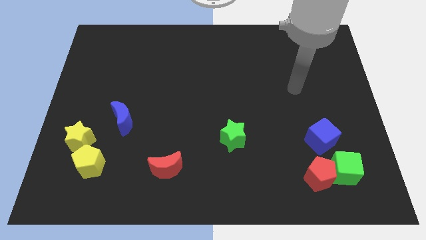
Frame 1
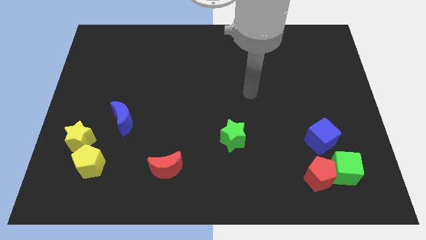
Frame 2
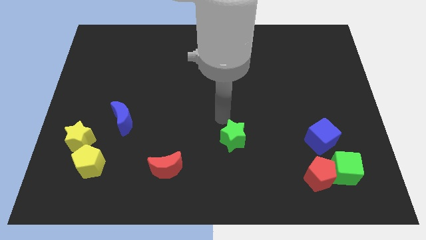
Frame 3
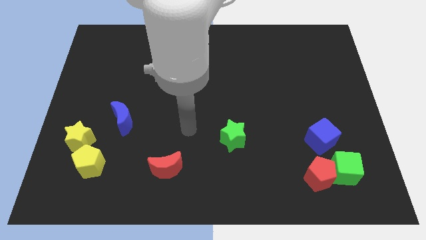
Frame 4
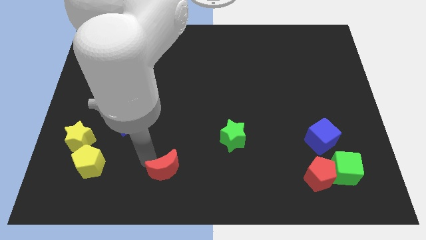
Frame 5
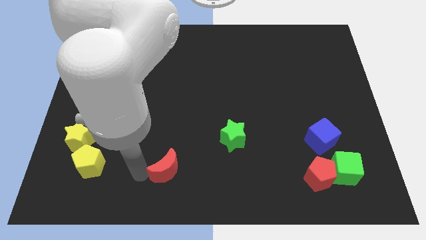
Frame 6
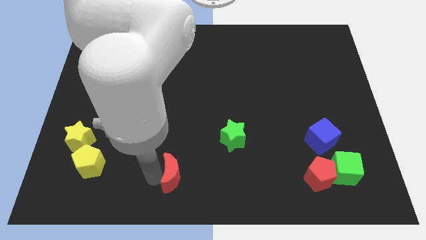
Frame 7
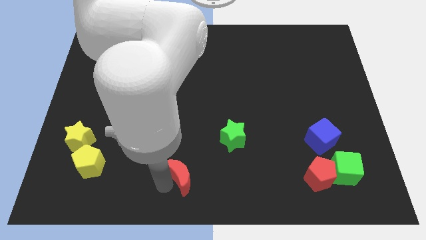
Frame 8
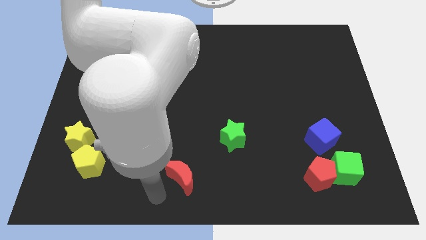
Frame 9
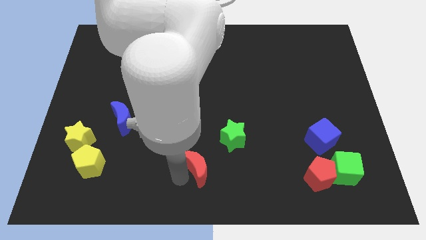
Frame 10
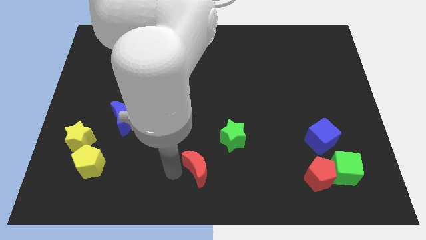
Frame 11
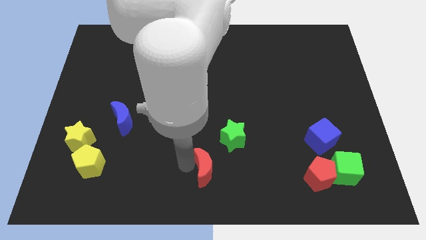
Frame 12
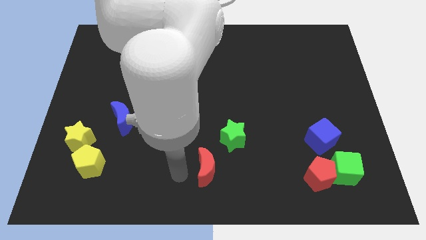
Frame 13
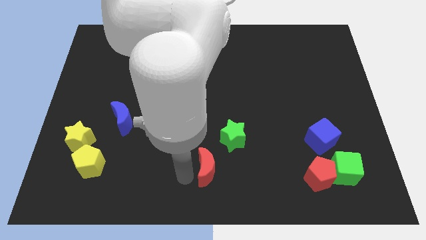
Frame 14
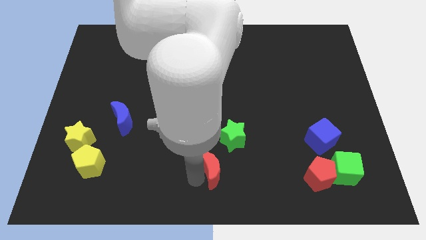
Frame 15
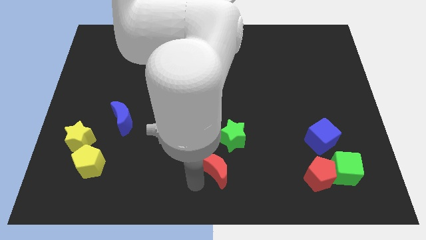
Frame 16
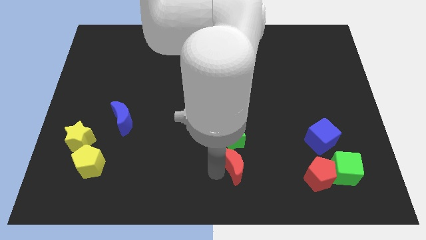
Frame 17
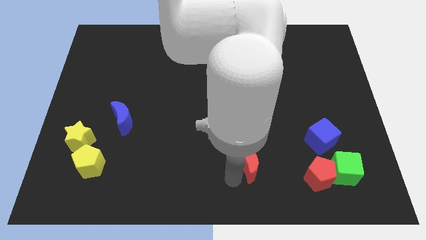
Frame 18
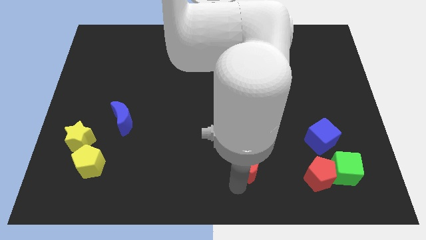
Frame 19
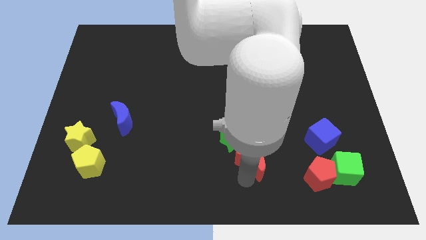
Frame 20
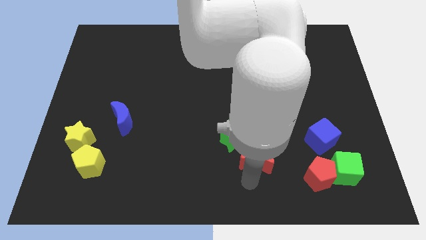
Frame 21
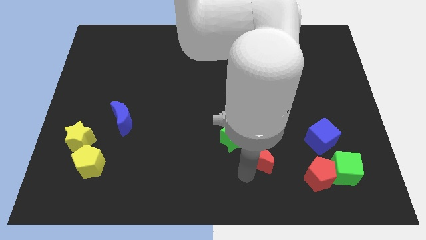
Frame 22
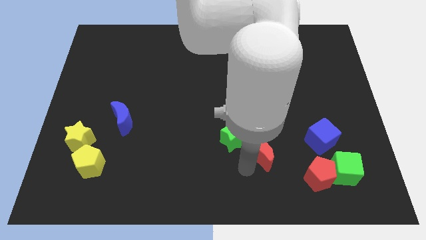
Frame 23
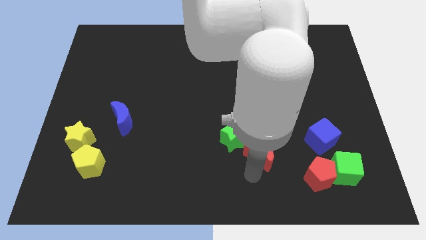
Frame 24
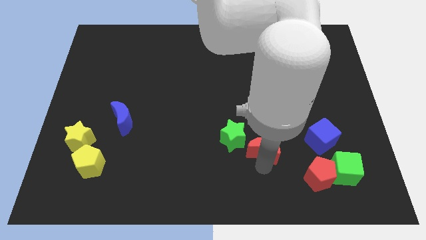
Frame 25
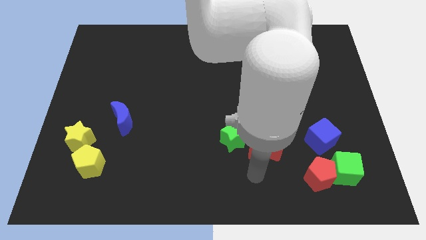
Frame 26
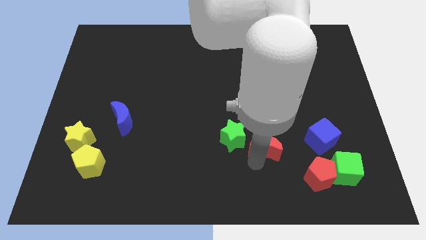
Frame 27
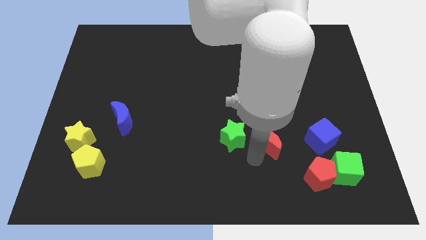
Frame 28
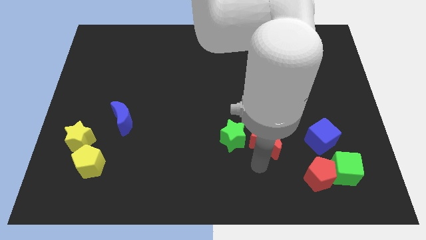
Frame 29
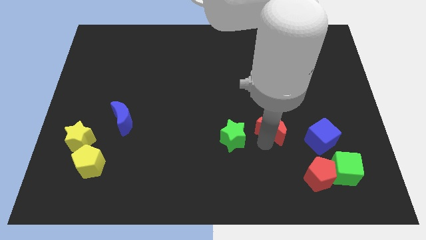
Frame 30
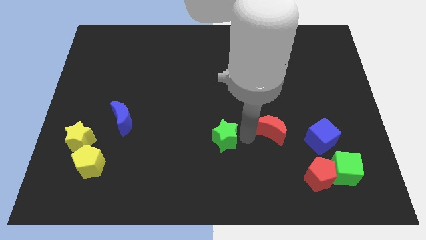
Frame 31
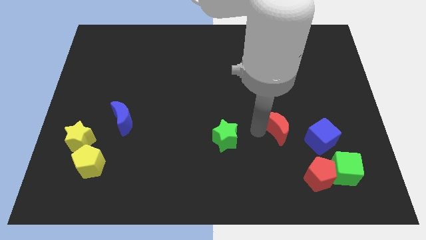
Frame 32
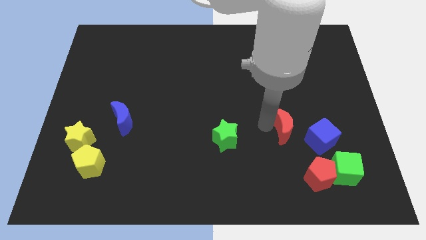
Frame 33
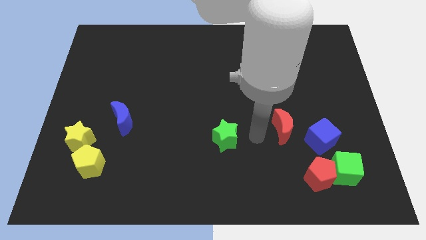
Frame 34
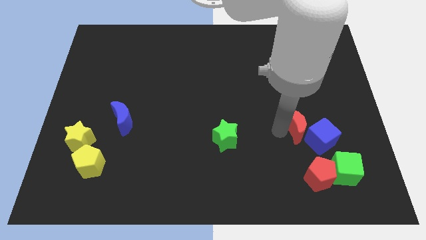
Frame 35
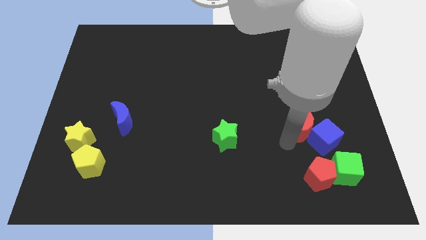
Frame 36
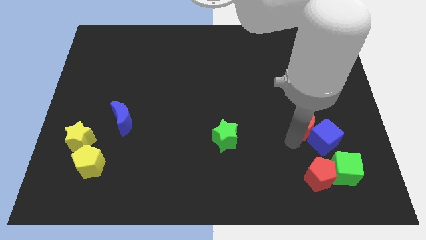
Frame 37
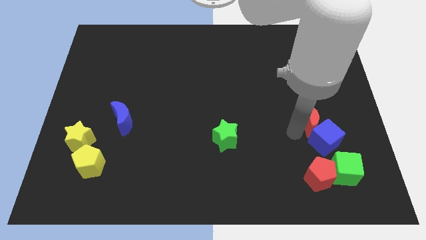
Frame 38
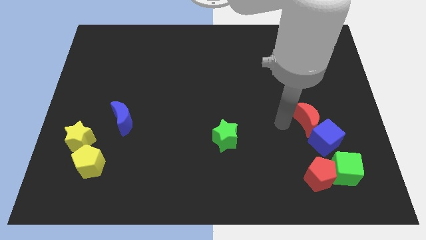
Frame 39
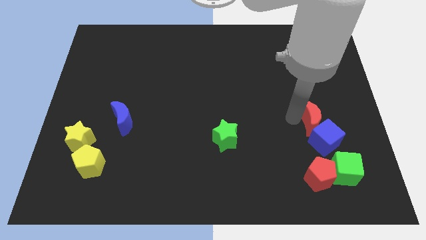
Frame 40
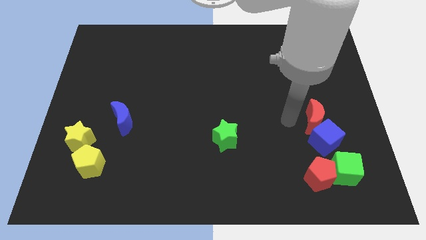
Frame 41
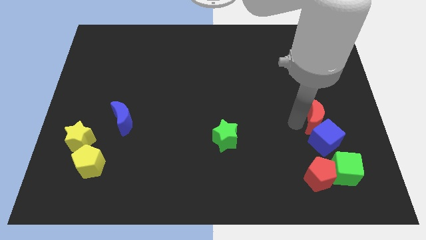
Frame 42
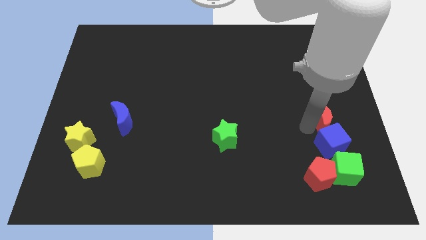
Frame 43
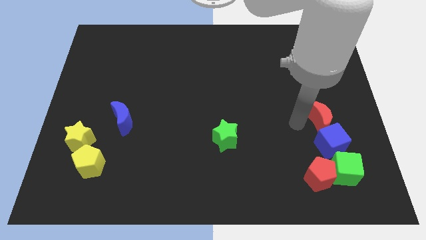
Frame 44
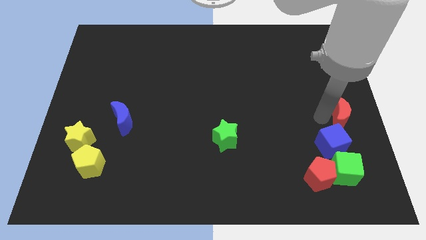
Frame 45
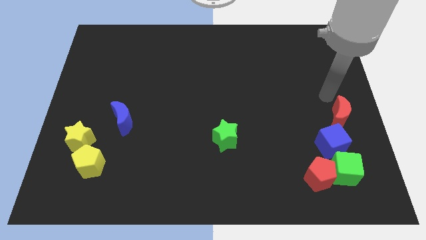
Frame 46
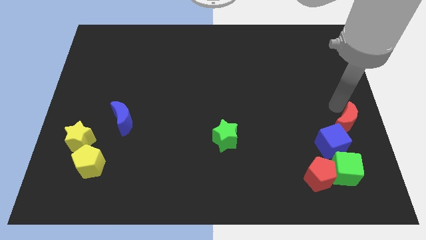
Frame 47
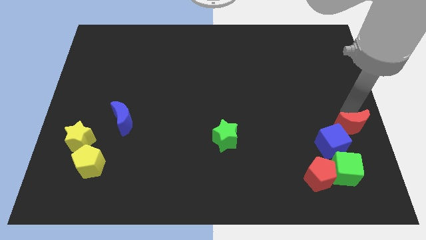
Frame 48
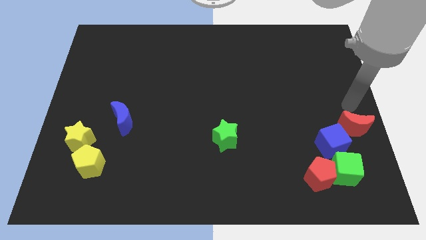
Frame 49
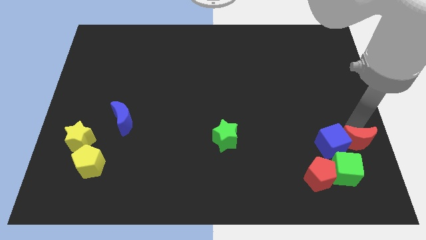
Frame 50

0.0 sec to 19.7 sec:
push the red moon to the top right side of the red pentagon

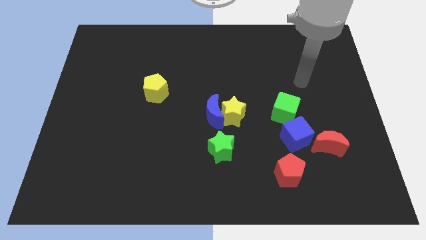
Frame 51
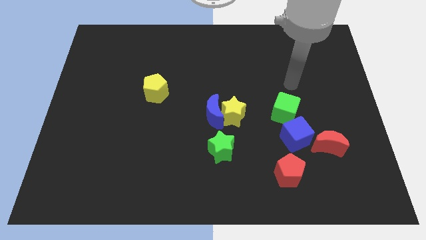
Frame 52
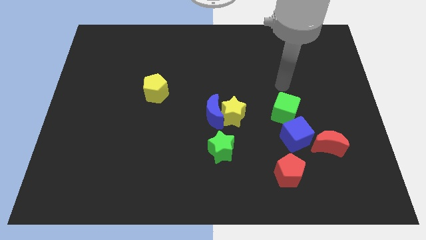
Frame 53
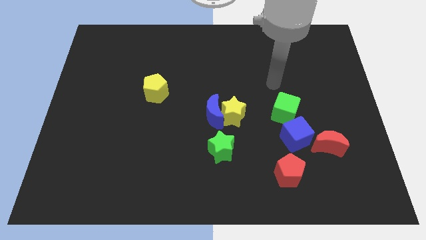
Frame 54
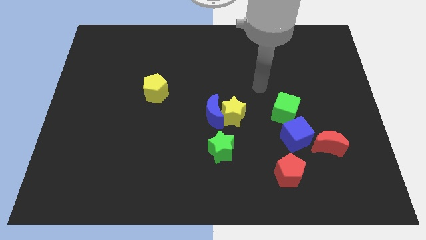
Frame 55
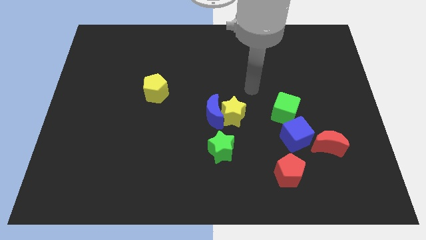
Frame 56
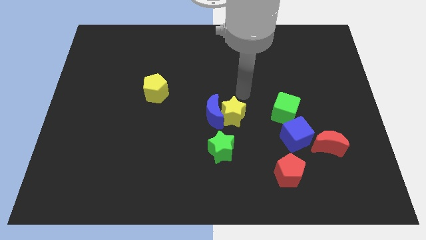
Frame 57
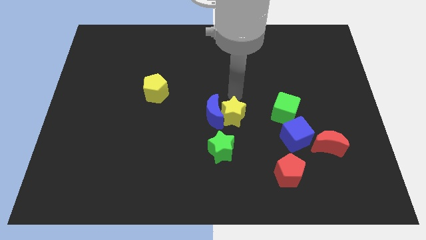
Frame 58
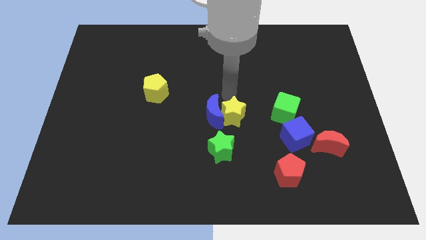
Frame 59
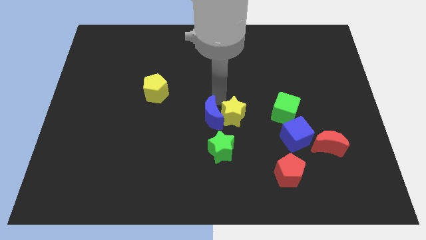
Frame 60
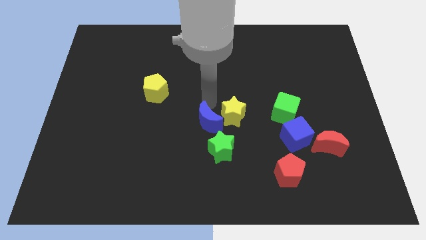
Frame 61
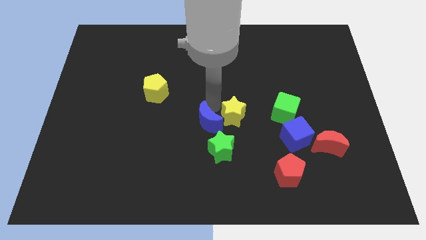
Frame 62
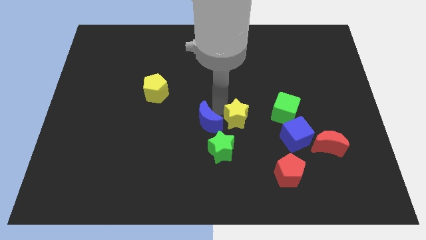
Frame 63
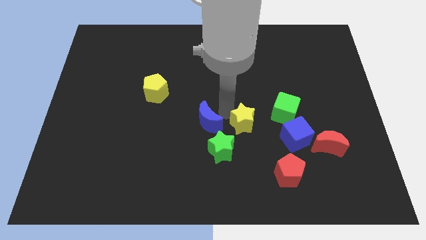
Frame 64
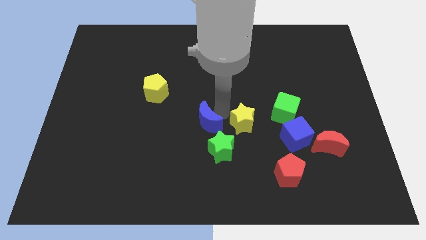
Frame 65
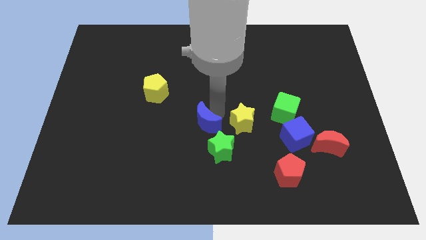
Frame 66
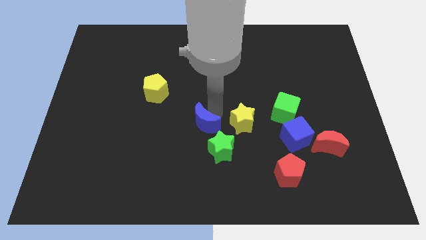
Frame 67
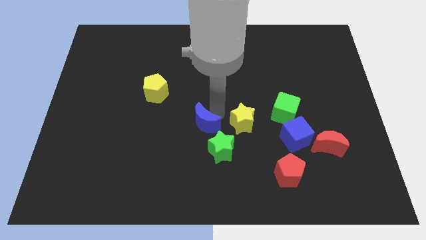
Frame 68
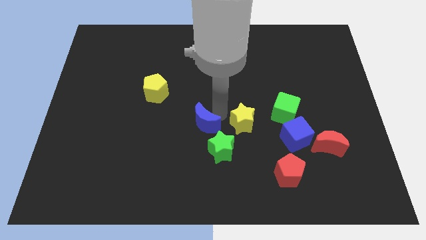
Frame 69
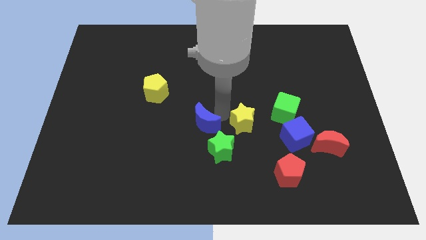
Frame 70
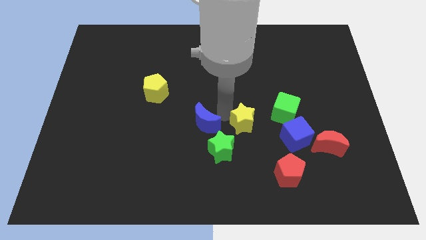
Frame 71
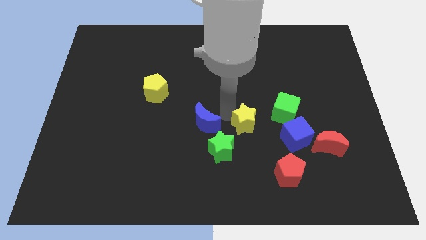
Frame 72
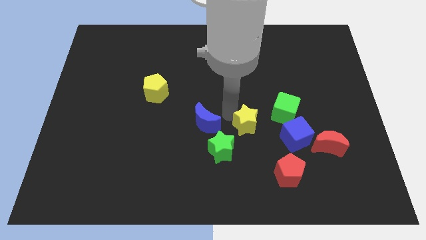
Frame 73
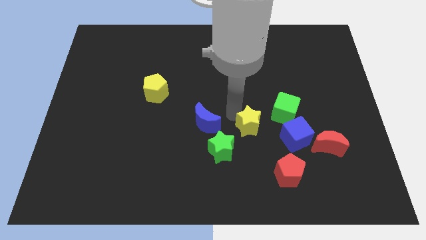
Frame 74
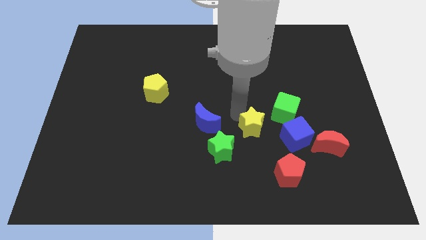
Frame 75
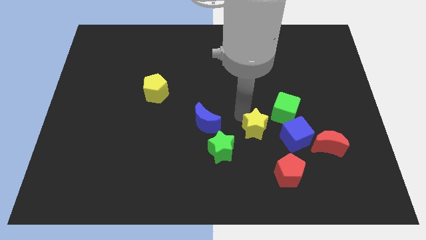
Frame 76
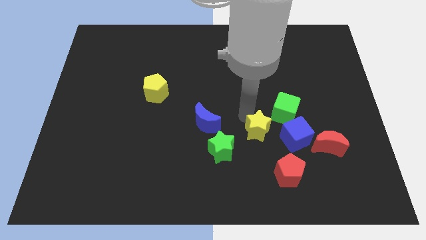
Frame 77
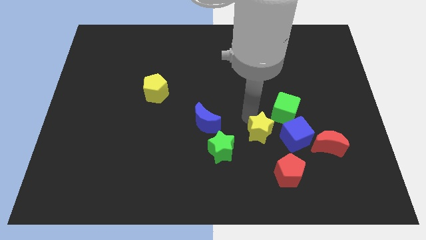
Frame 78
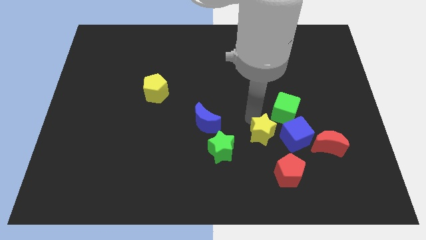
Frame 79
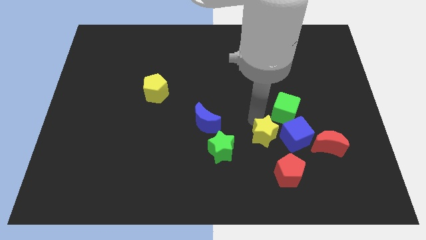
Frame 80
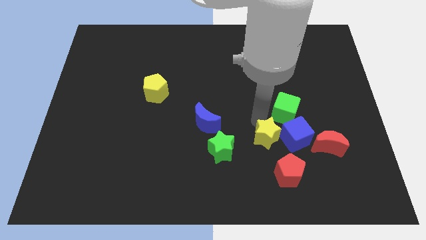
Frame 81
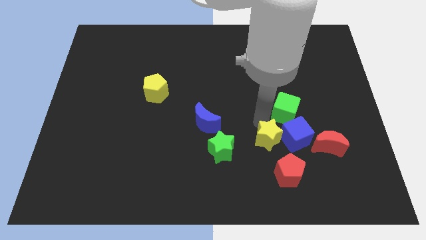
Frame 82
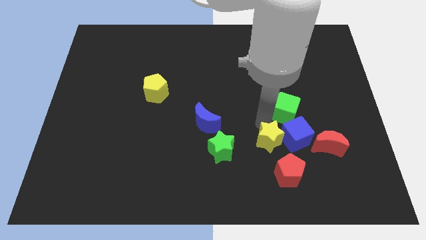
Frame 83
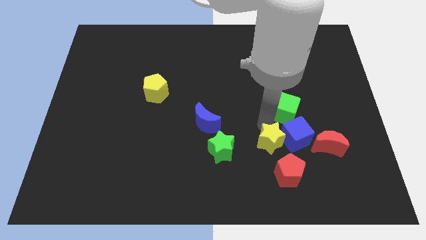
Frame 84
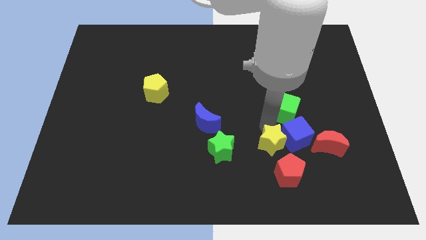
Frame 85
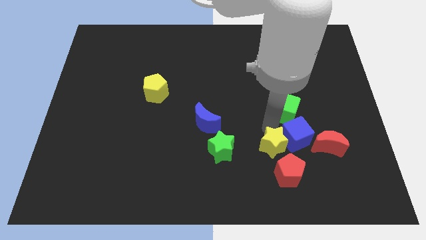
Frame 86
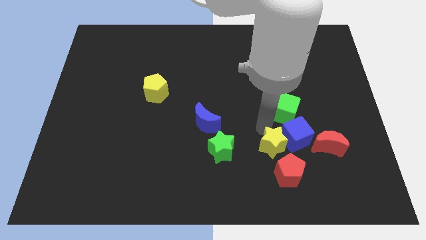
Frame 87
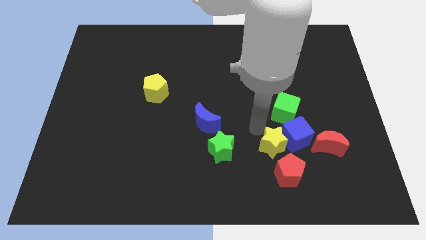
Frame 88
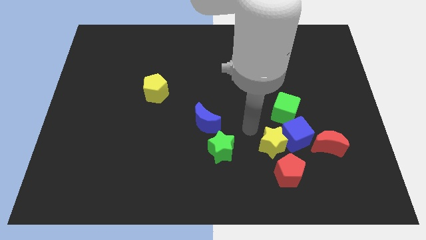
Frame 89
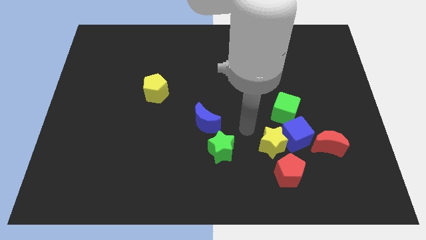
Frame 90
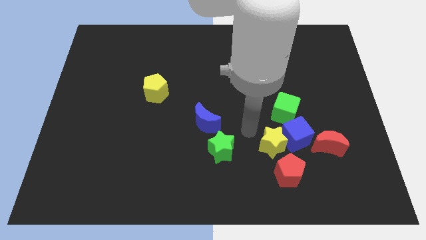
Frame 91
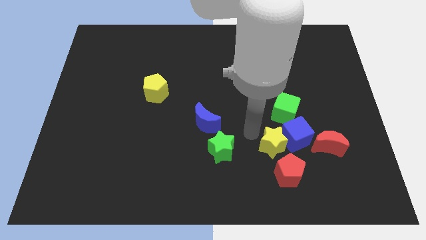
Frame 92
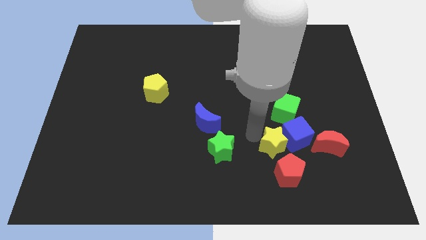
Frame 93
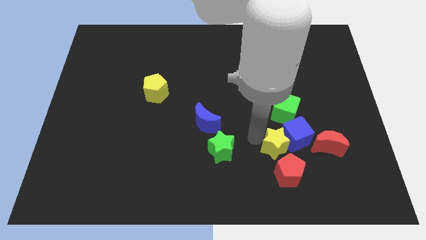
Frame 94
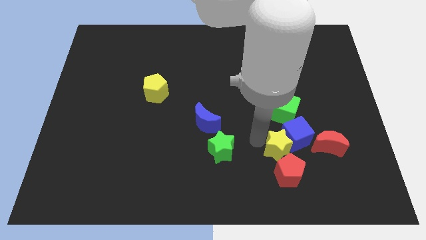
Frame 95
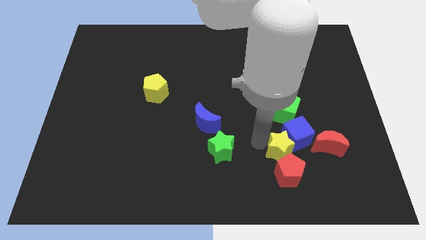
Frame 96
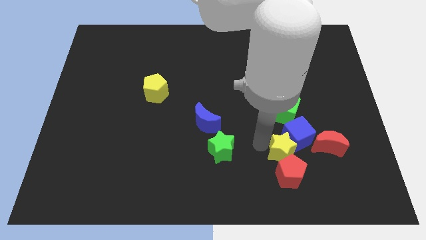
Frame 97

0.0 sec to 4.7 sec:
push the yellow star to the top right side of the red pentagon
